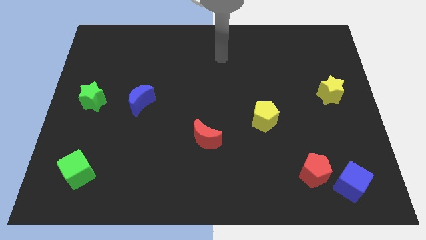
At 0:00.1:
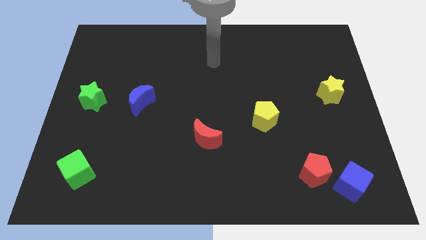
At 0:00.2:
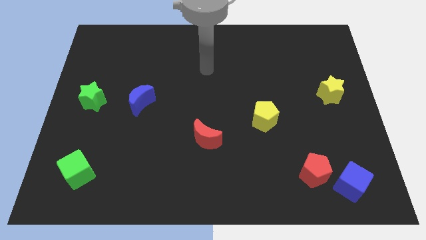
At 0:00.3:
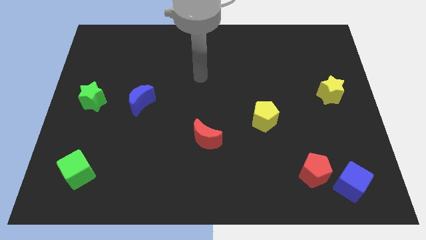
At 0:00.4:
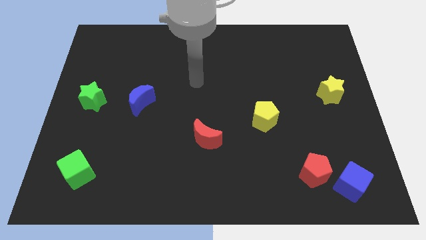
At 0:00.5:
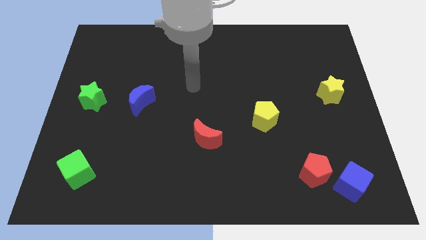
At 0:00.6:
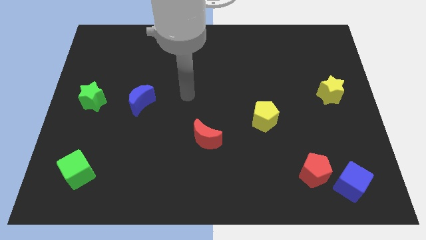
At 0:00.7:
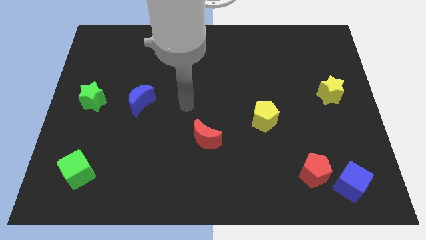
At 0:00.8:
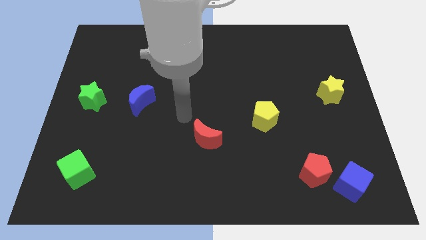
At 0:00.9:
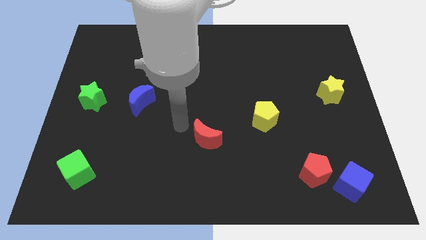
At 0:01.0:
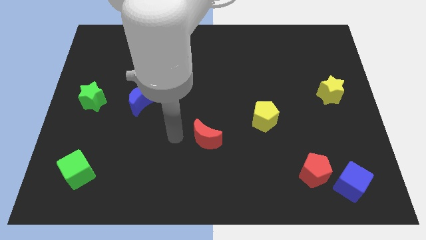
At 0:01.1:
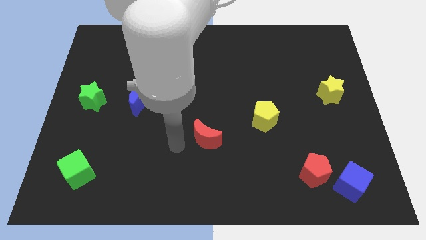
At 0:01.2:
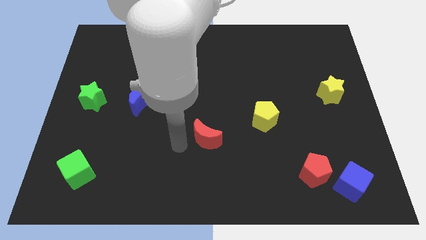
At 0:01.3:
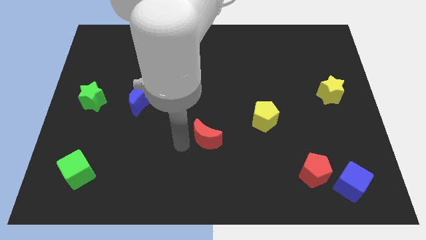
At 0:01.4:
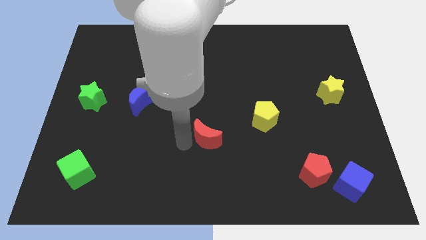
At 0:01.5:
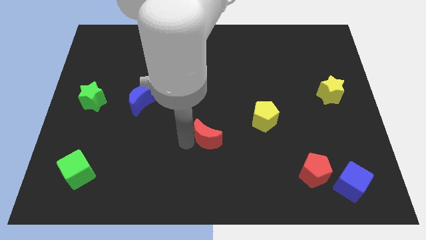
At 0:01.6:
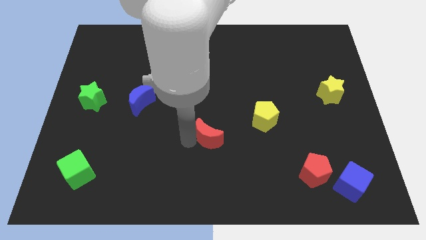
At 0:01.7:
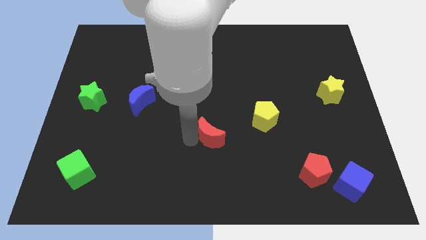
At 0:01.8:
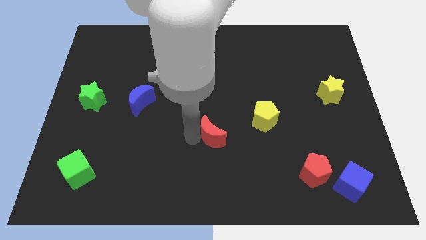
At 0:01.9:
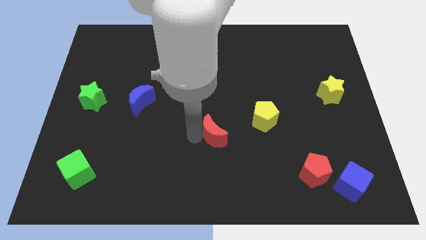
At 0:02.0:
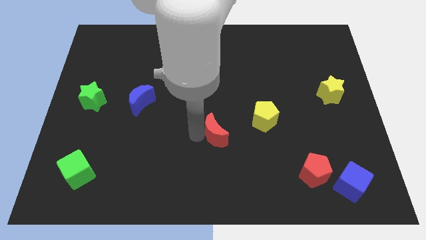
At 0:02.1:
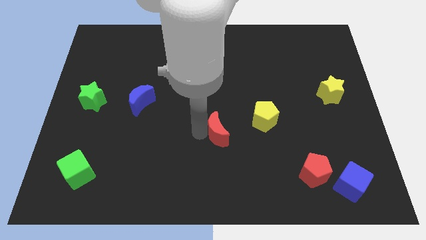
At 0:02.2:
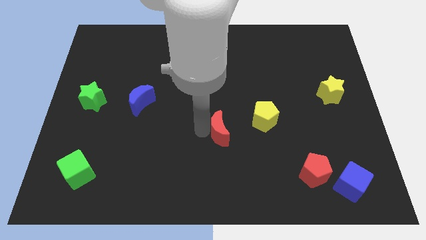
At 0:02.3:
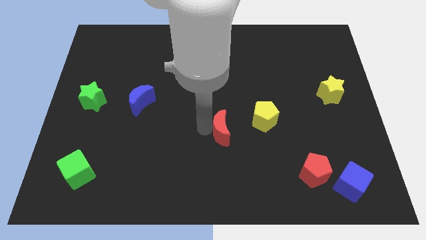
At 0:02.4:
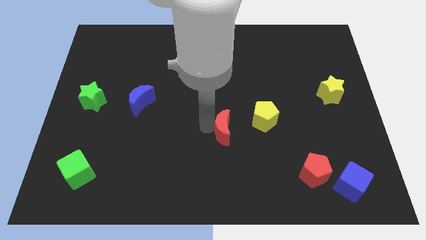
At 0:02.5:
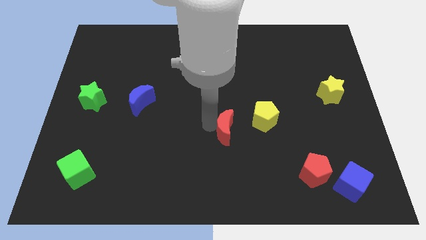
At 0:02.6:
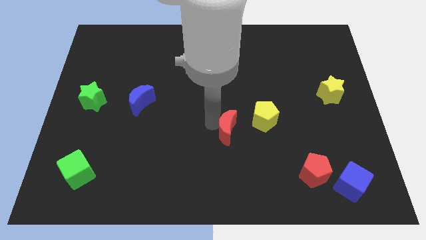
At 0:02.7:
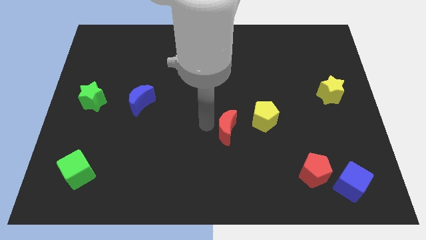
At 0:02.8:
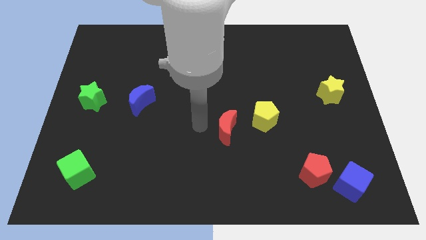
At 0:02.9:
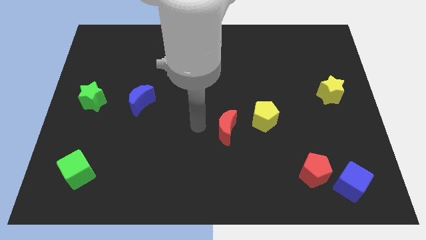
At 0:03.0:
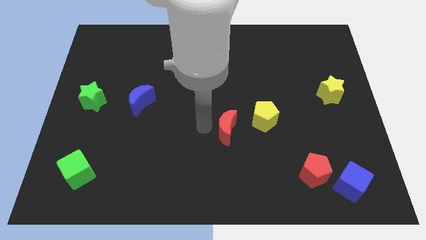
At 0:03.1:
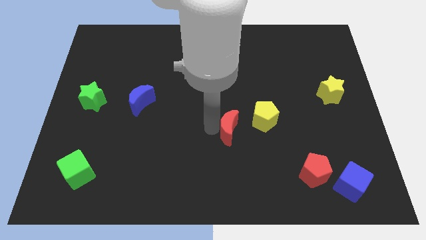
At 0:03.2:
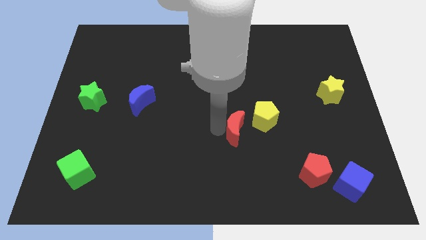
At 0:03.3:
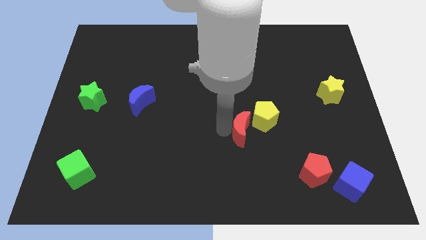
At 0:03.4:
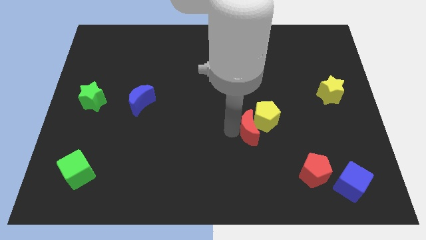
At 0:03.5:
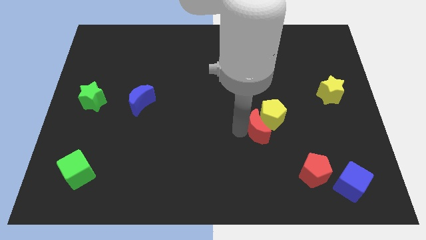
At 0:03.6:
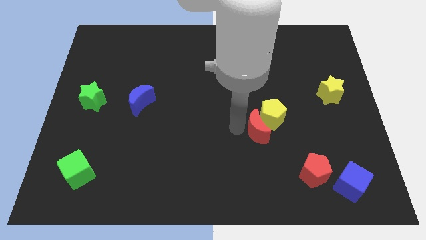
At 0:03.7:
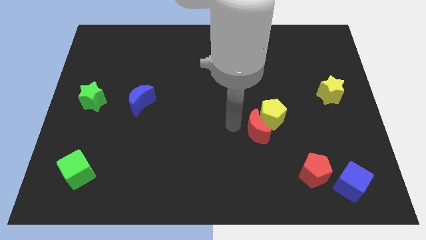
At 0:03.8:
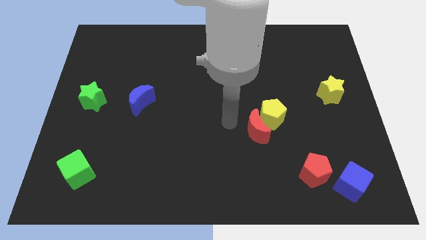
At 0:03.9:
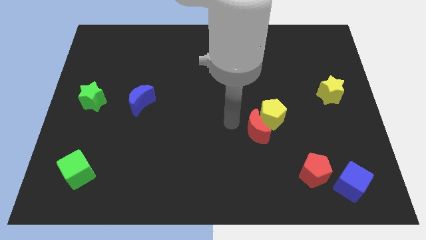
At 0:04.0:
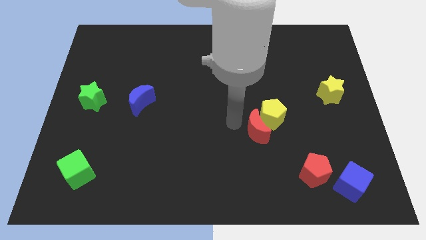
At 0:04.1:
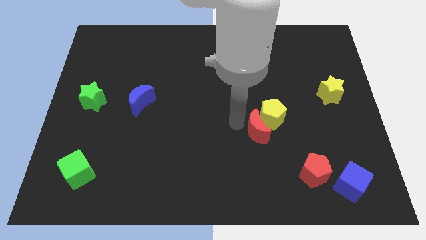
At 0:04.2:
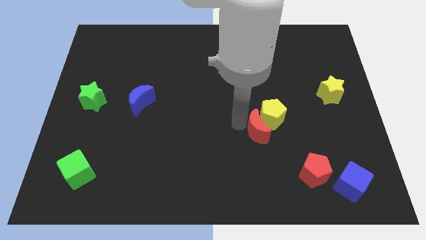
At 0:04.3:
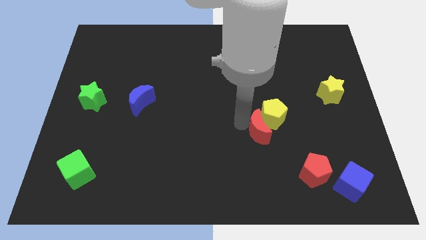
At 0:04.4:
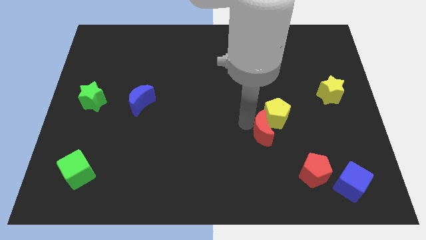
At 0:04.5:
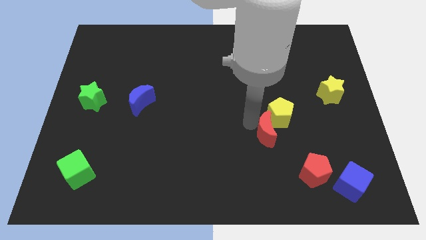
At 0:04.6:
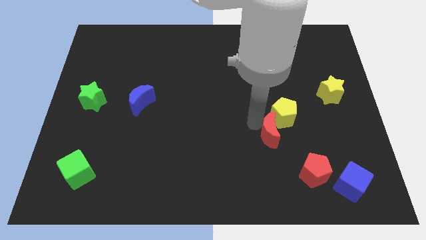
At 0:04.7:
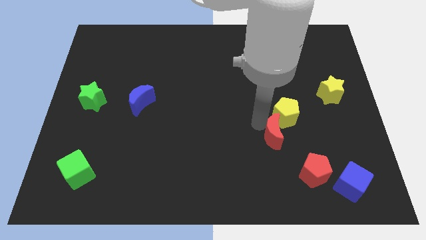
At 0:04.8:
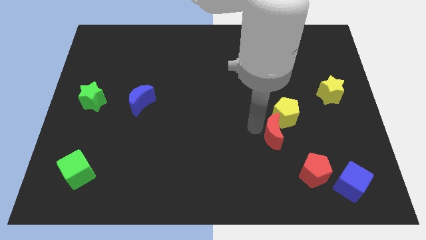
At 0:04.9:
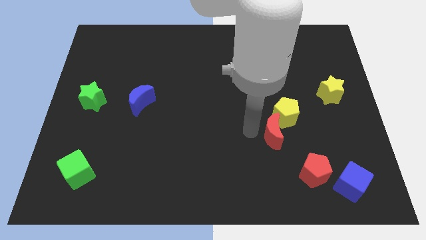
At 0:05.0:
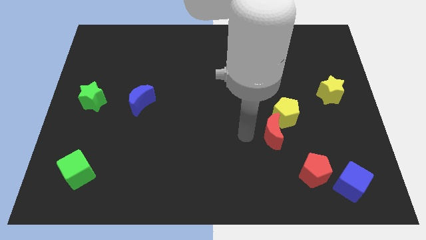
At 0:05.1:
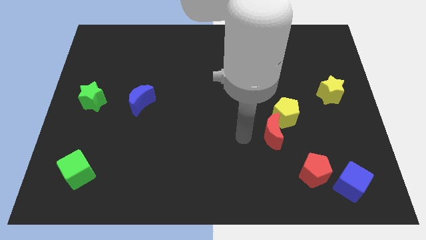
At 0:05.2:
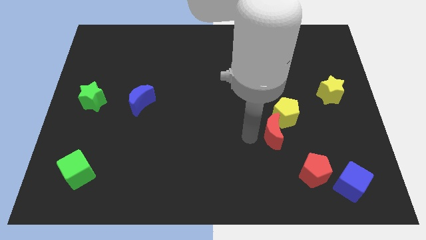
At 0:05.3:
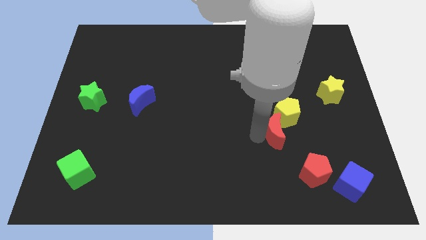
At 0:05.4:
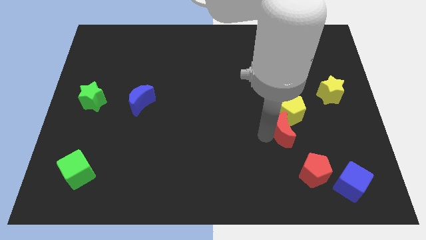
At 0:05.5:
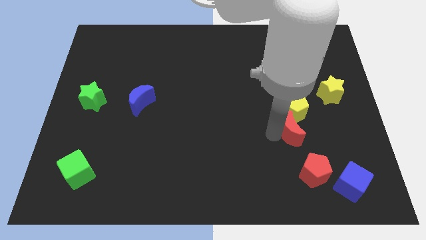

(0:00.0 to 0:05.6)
move the red moon to the top of the red pentagon

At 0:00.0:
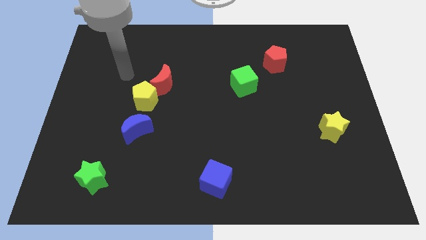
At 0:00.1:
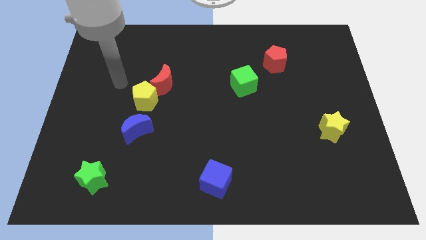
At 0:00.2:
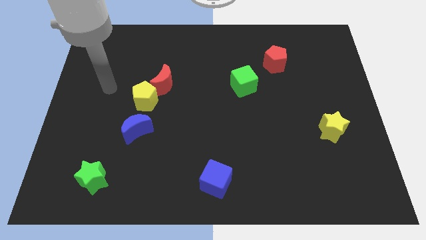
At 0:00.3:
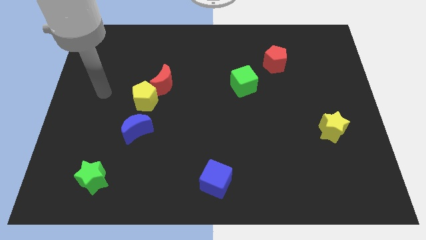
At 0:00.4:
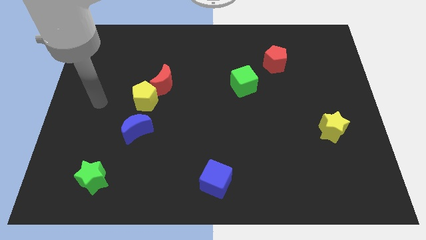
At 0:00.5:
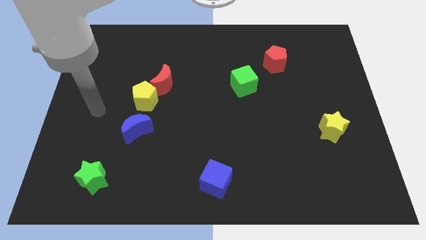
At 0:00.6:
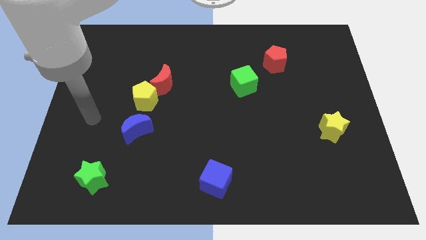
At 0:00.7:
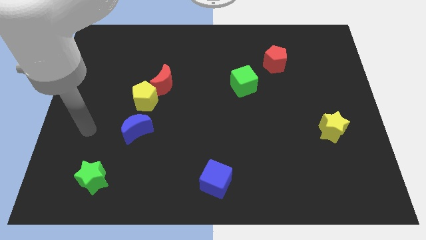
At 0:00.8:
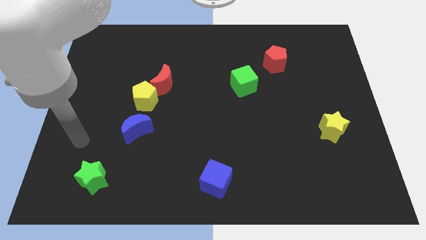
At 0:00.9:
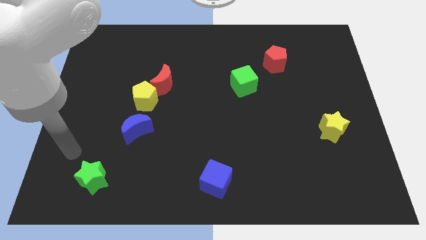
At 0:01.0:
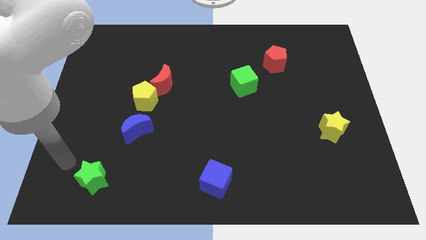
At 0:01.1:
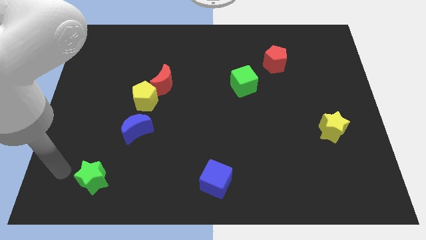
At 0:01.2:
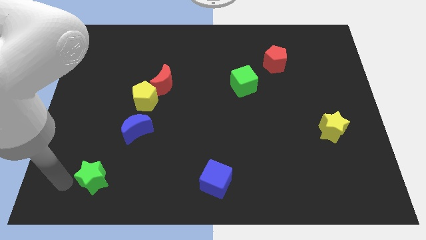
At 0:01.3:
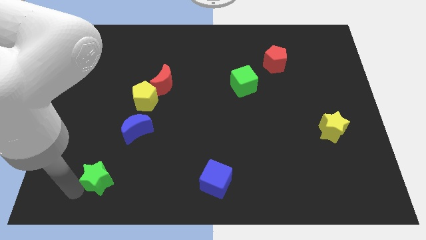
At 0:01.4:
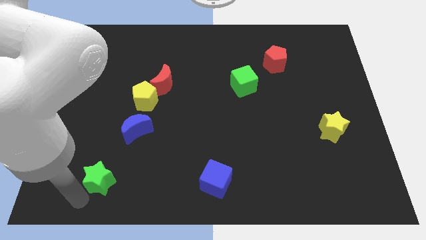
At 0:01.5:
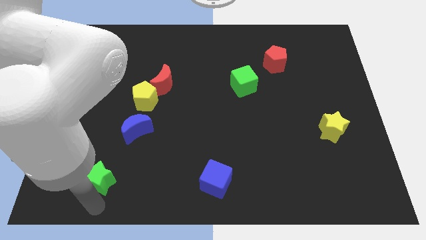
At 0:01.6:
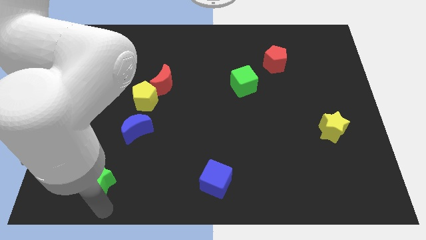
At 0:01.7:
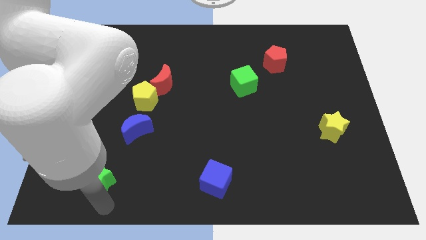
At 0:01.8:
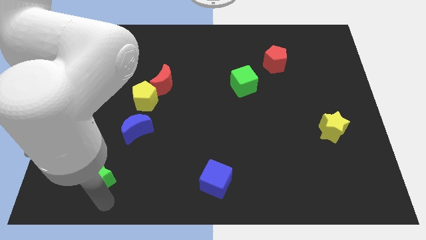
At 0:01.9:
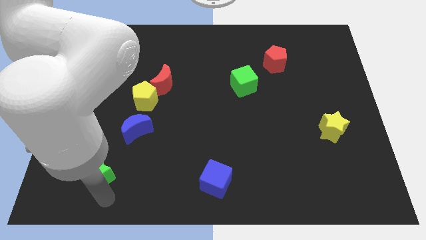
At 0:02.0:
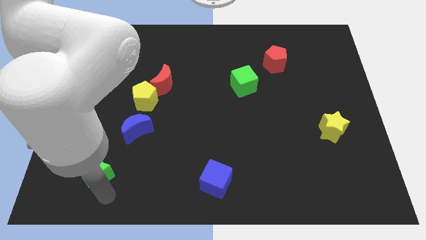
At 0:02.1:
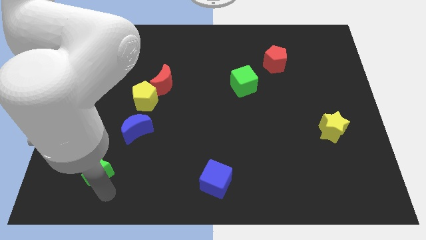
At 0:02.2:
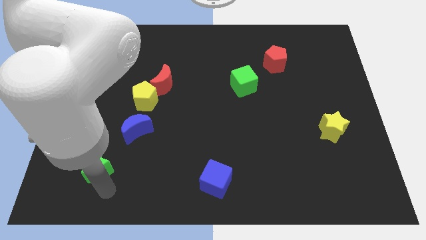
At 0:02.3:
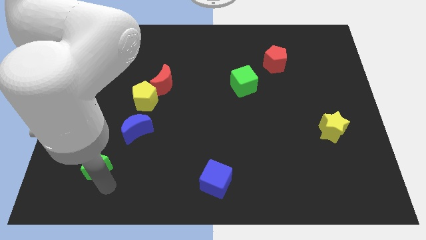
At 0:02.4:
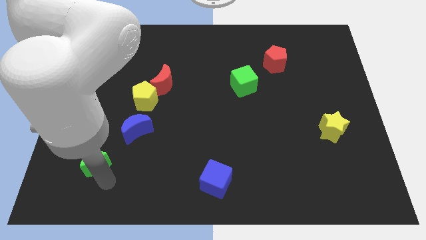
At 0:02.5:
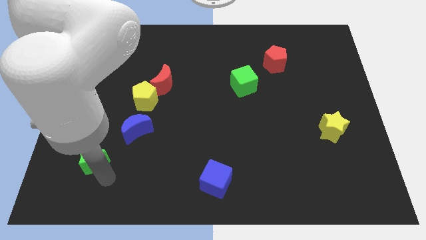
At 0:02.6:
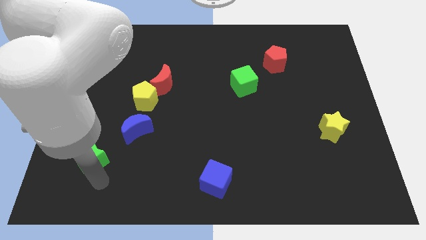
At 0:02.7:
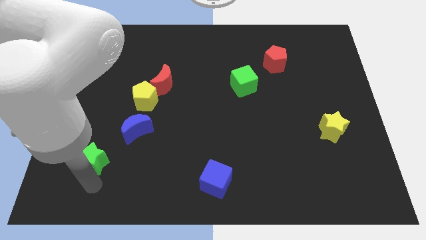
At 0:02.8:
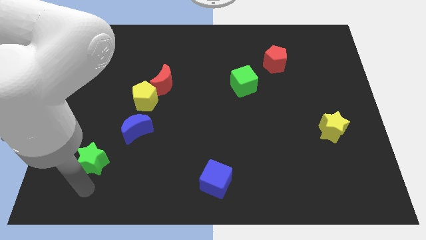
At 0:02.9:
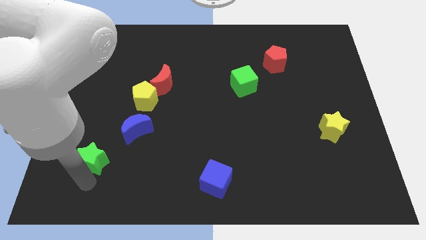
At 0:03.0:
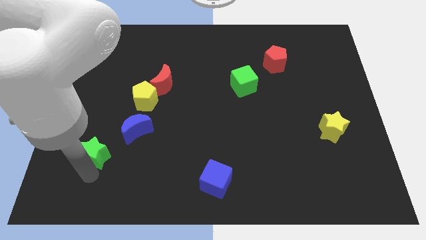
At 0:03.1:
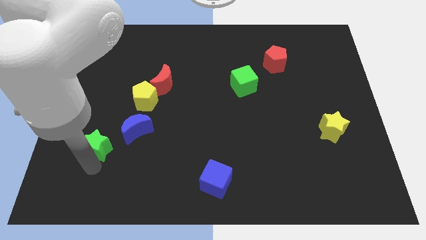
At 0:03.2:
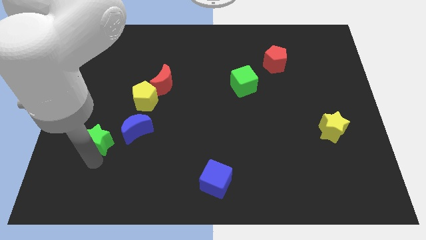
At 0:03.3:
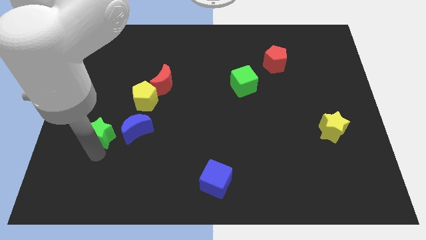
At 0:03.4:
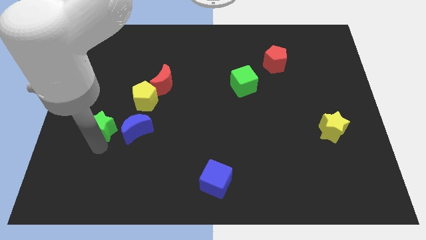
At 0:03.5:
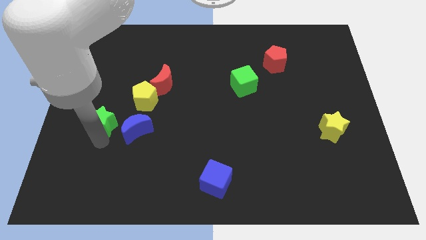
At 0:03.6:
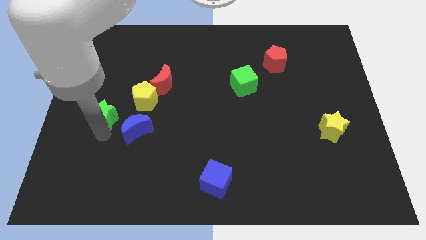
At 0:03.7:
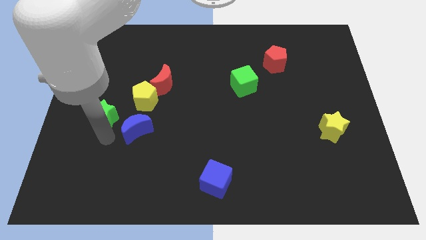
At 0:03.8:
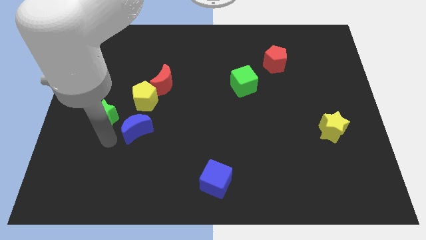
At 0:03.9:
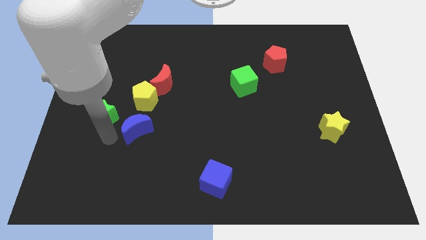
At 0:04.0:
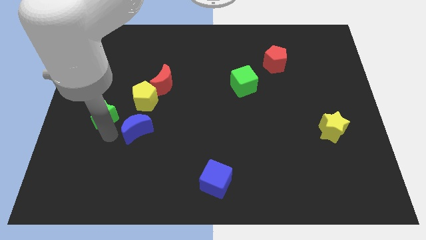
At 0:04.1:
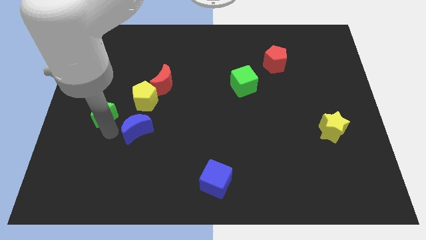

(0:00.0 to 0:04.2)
move the green star to the left side of the yellow pentagon
